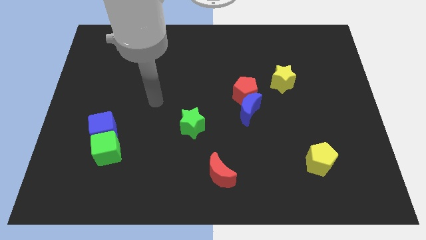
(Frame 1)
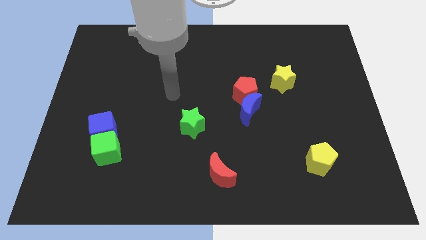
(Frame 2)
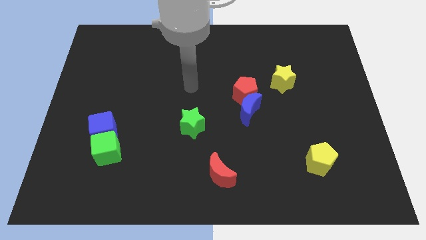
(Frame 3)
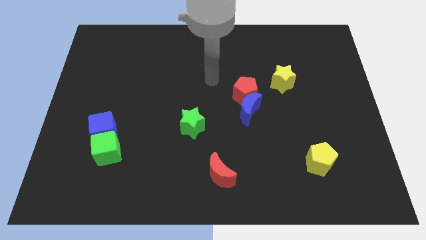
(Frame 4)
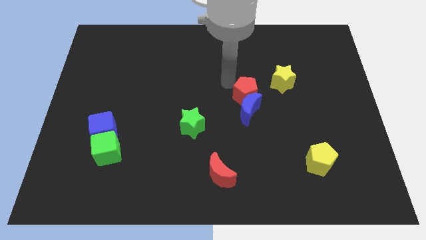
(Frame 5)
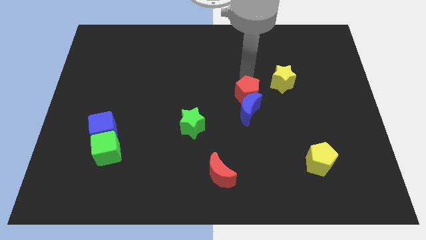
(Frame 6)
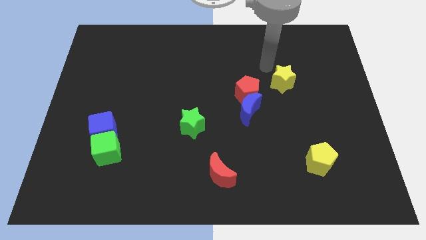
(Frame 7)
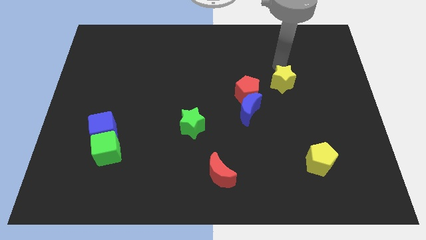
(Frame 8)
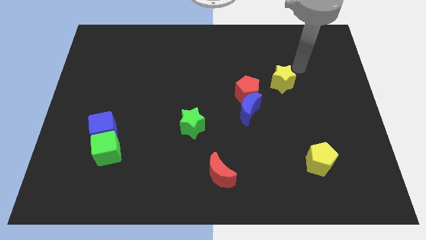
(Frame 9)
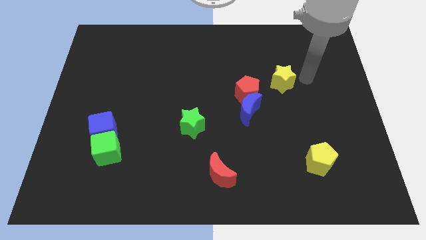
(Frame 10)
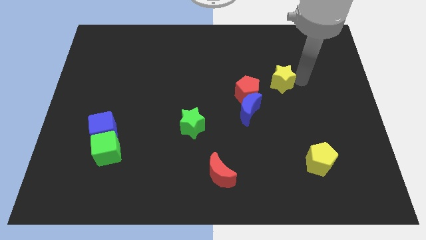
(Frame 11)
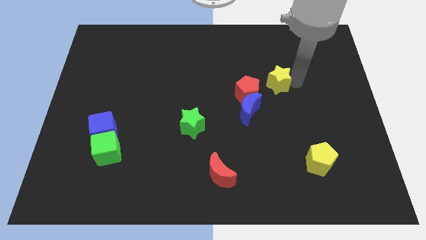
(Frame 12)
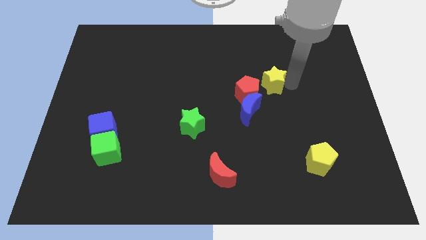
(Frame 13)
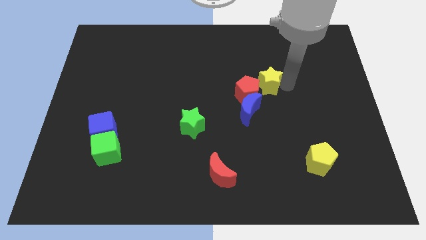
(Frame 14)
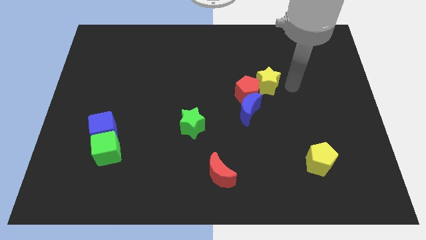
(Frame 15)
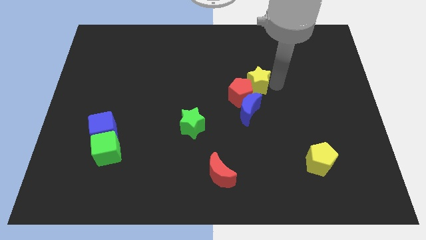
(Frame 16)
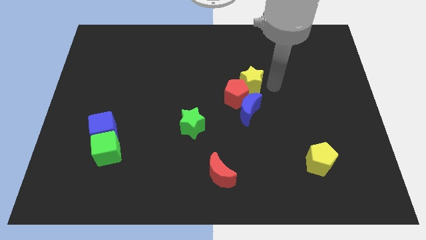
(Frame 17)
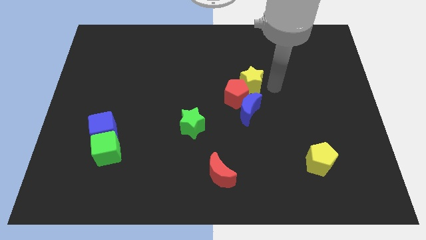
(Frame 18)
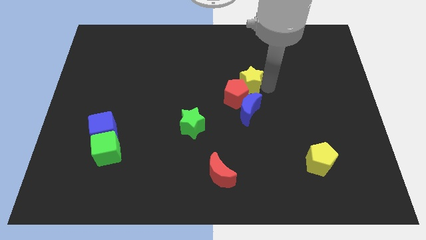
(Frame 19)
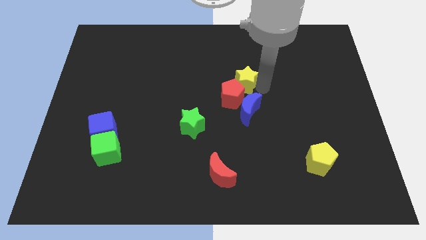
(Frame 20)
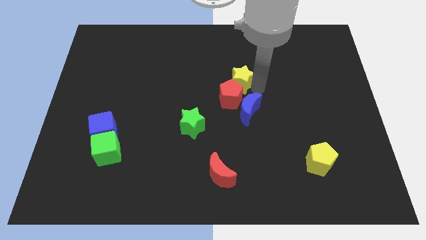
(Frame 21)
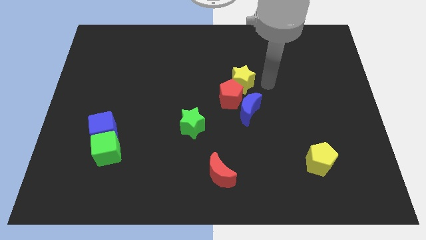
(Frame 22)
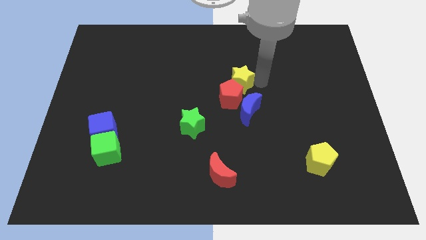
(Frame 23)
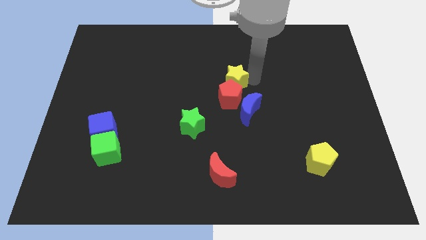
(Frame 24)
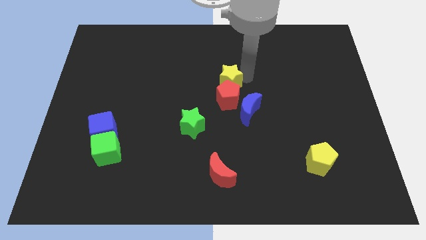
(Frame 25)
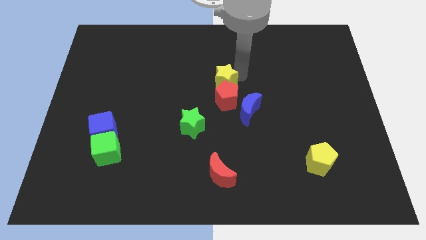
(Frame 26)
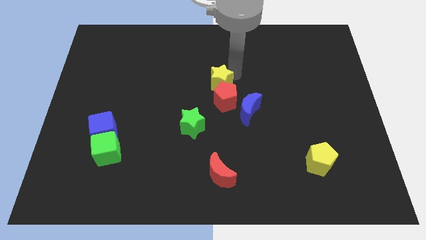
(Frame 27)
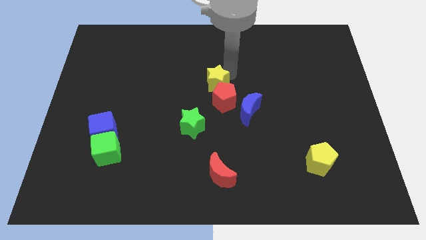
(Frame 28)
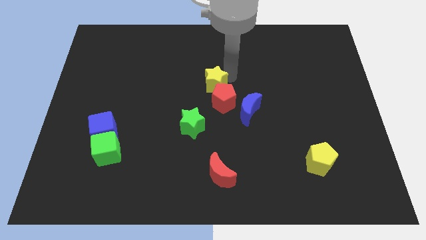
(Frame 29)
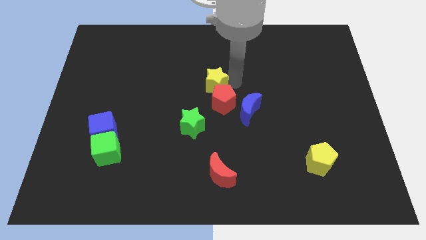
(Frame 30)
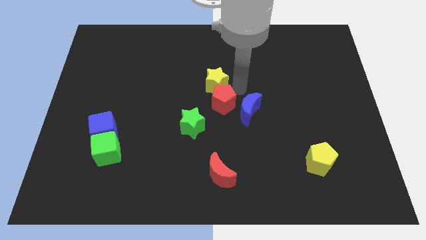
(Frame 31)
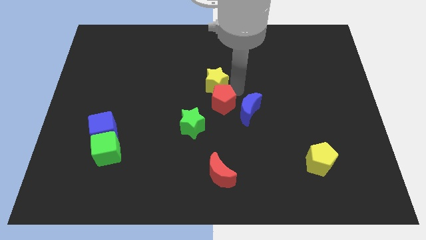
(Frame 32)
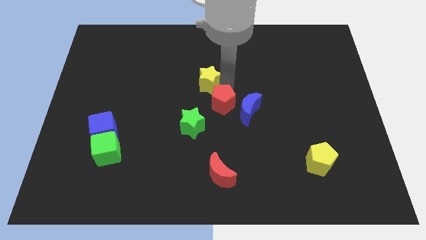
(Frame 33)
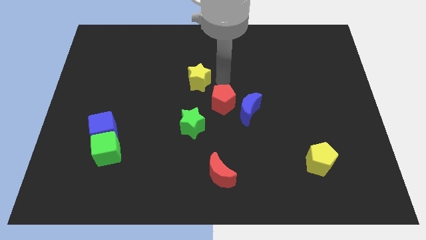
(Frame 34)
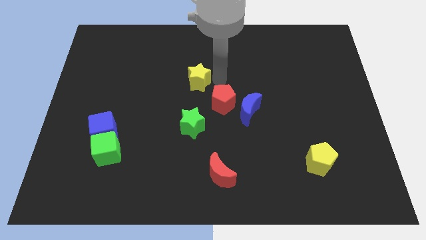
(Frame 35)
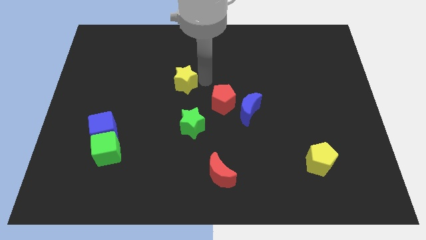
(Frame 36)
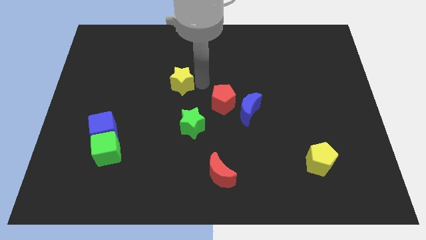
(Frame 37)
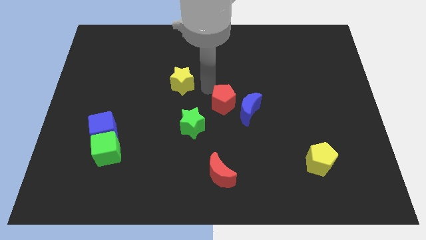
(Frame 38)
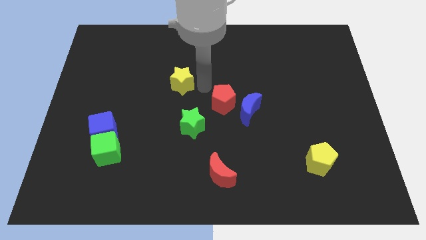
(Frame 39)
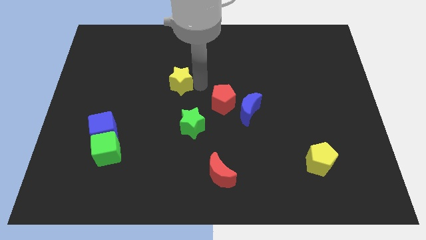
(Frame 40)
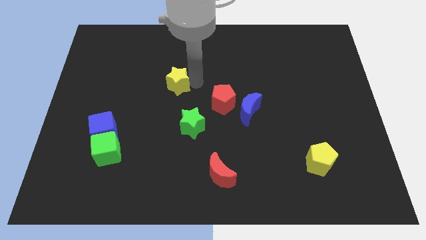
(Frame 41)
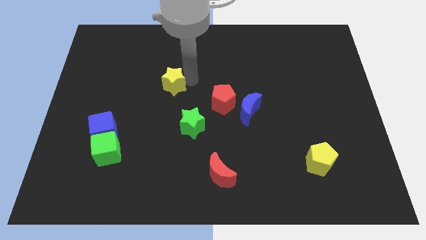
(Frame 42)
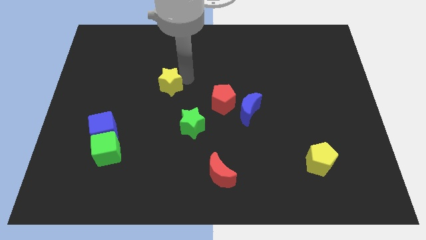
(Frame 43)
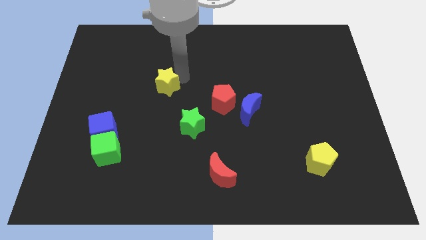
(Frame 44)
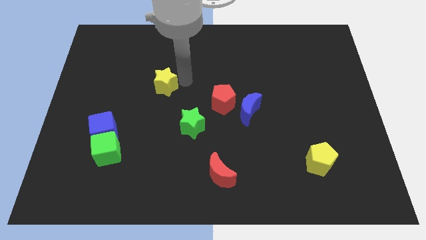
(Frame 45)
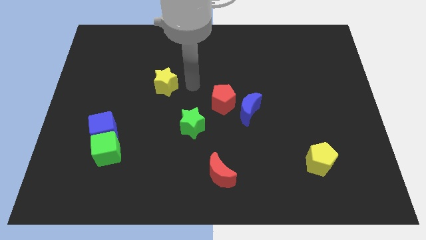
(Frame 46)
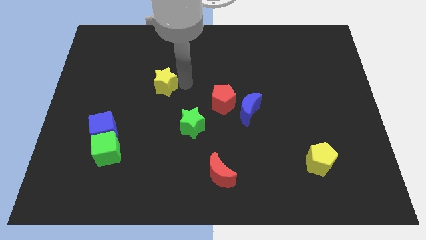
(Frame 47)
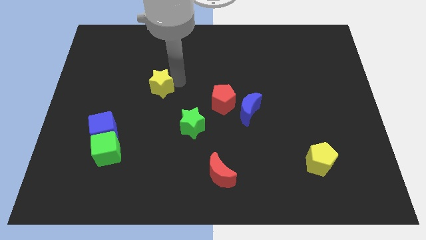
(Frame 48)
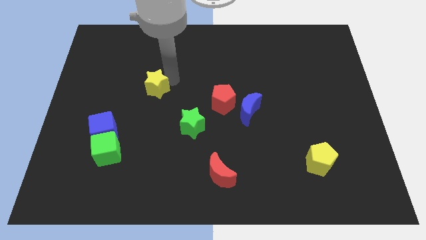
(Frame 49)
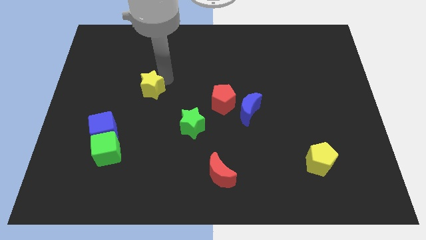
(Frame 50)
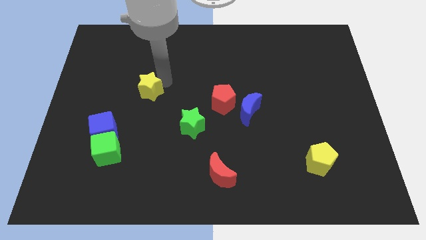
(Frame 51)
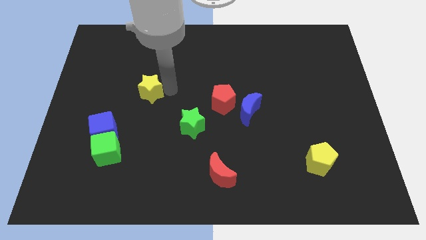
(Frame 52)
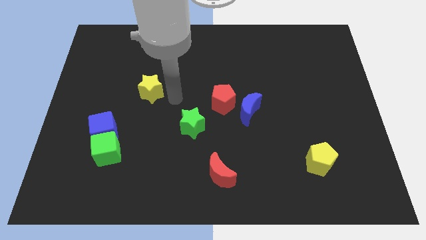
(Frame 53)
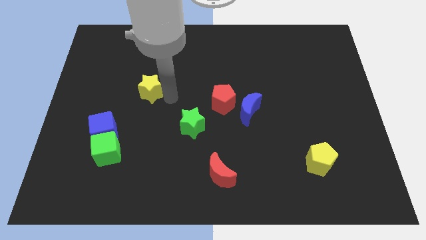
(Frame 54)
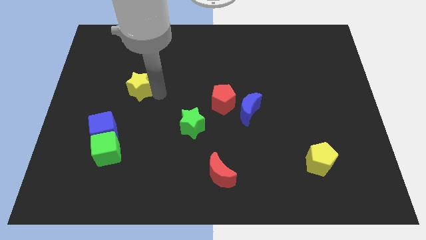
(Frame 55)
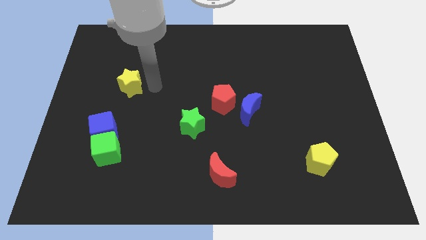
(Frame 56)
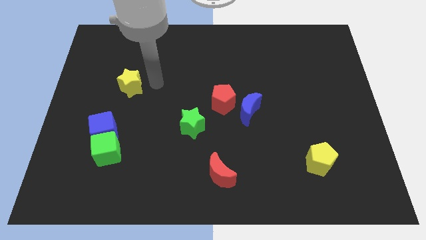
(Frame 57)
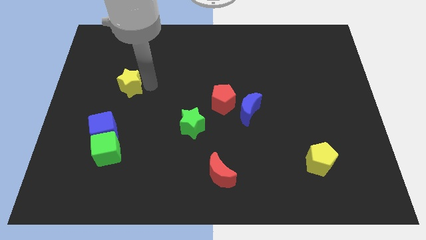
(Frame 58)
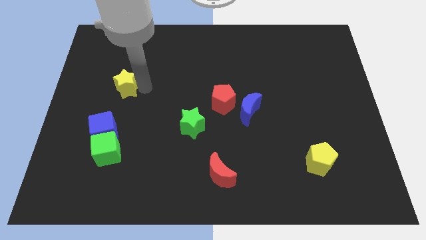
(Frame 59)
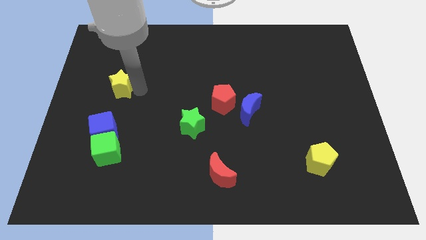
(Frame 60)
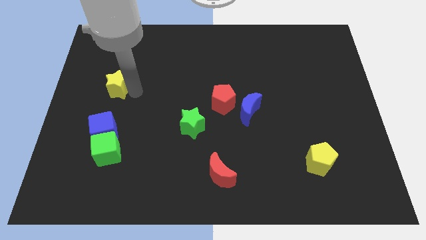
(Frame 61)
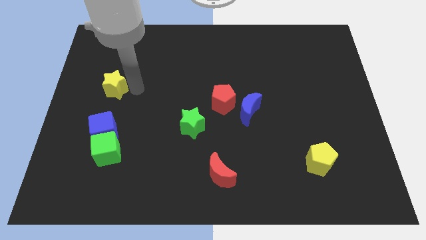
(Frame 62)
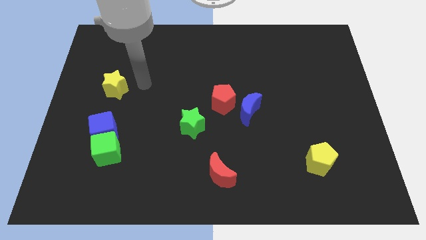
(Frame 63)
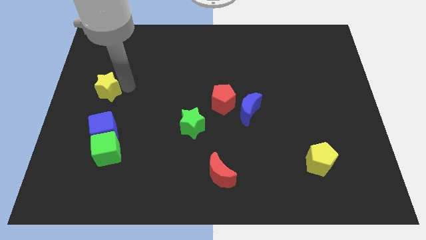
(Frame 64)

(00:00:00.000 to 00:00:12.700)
move the yellow star to the left side of the board
